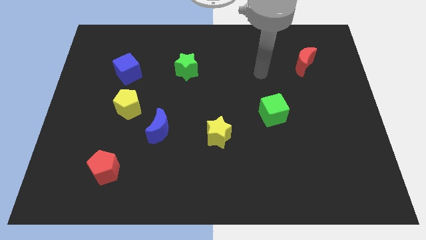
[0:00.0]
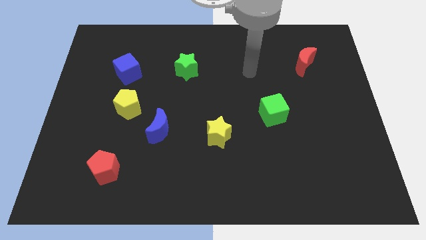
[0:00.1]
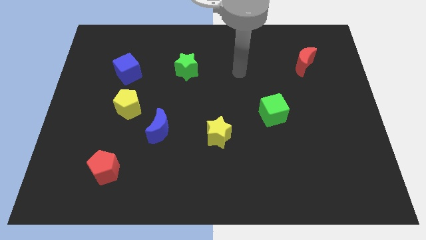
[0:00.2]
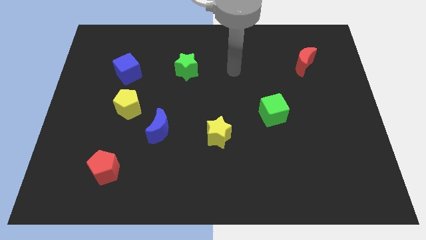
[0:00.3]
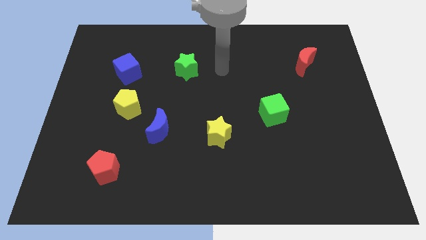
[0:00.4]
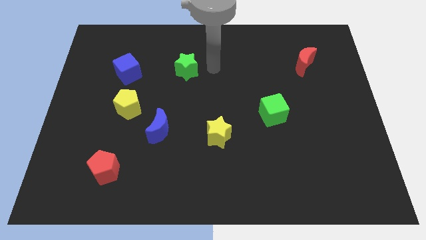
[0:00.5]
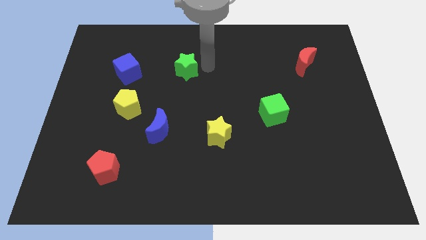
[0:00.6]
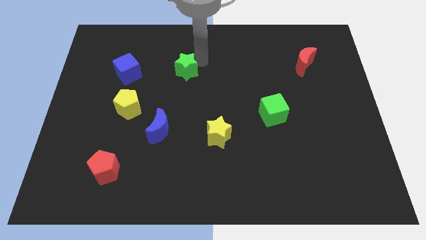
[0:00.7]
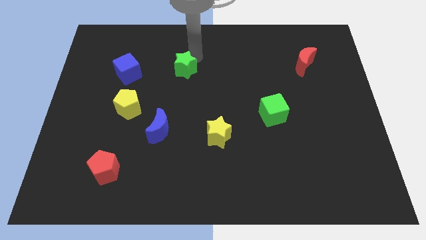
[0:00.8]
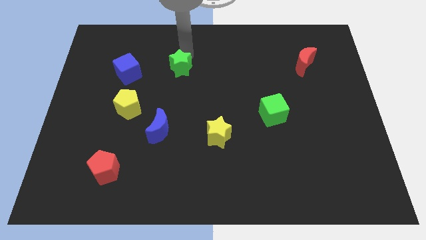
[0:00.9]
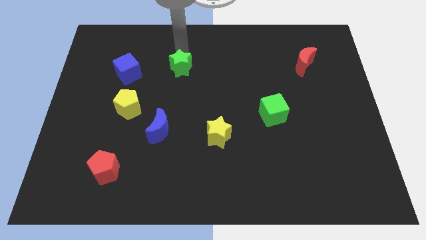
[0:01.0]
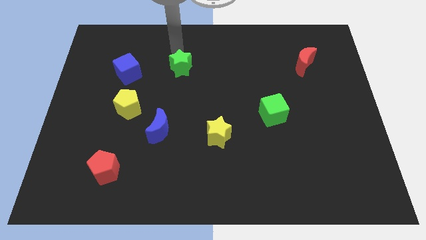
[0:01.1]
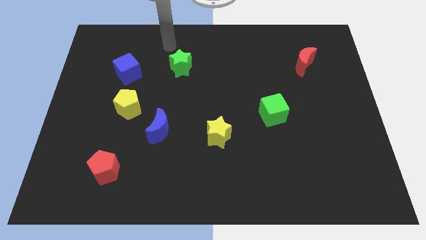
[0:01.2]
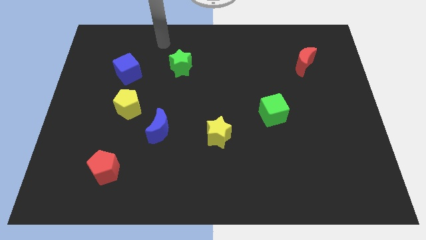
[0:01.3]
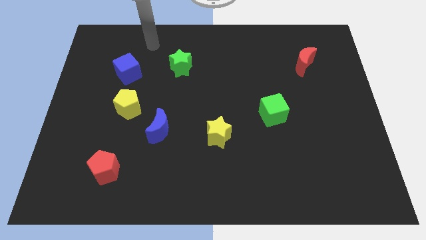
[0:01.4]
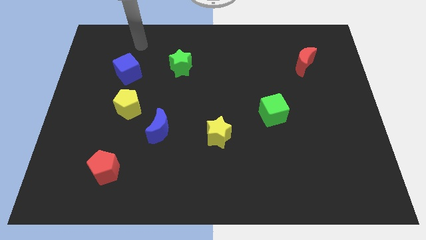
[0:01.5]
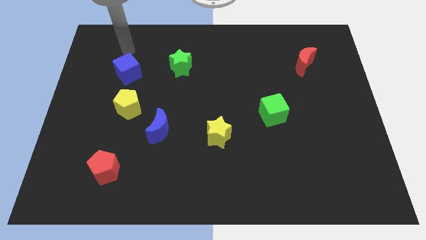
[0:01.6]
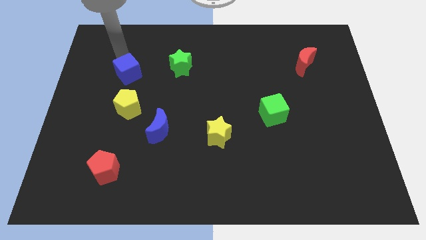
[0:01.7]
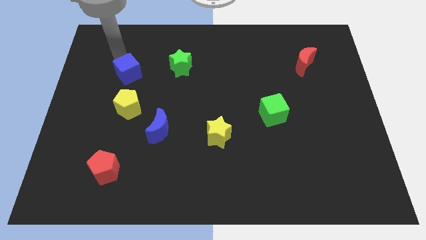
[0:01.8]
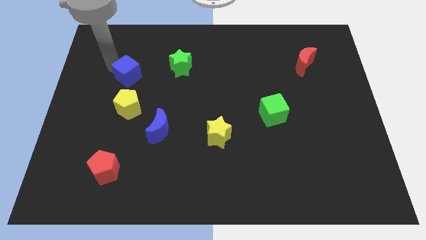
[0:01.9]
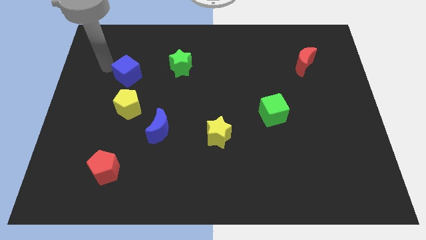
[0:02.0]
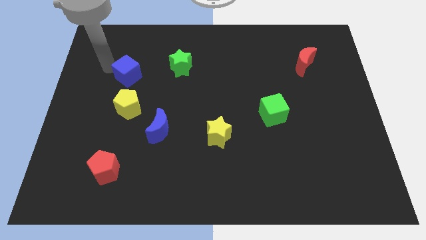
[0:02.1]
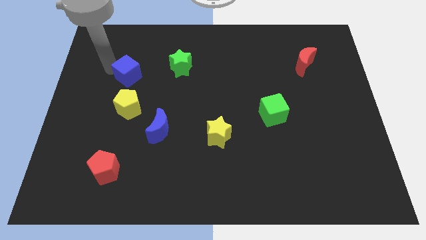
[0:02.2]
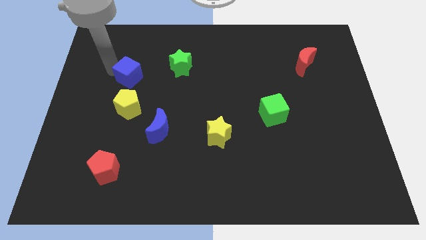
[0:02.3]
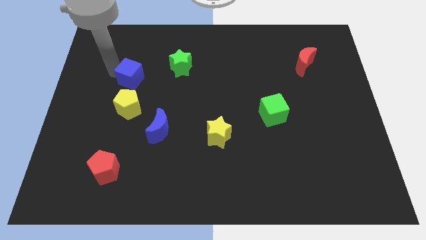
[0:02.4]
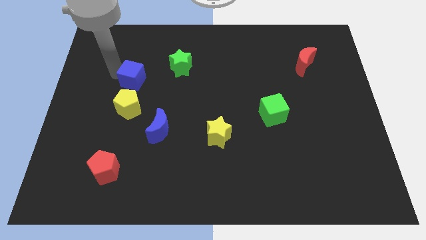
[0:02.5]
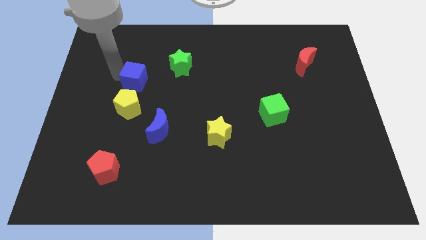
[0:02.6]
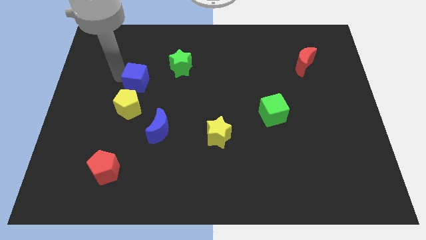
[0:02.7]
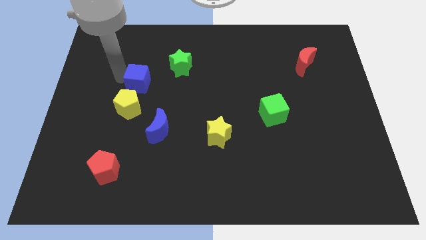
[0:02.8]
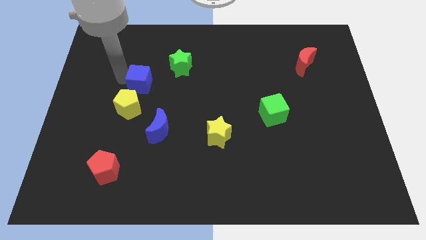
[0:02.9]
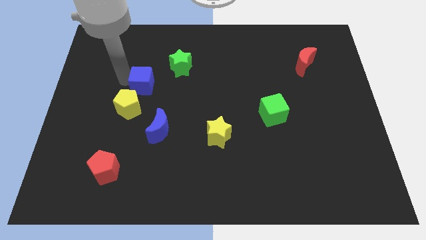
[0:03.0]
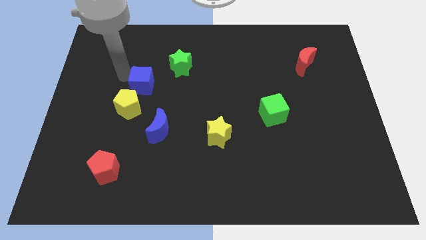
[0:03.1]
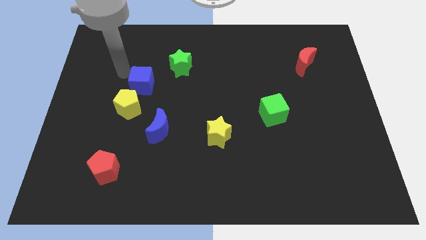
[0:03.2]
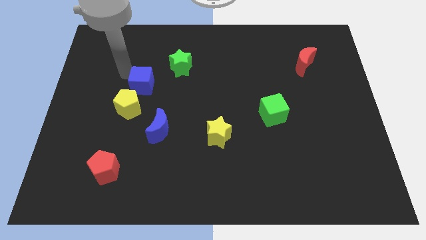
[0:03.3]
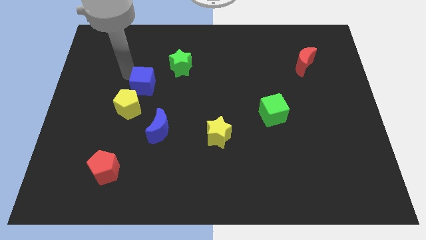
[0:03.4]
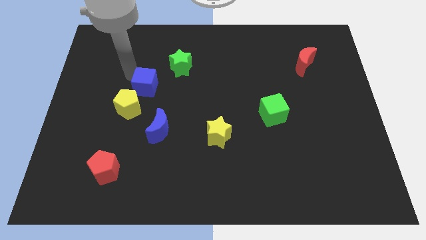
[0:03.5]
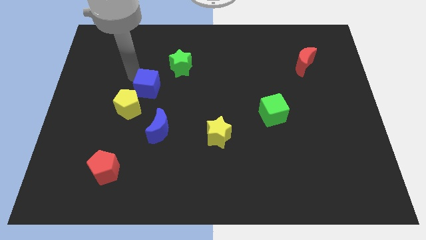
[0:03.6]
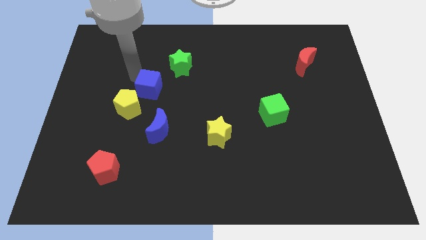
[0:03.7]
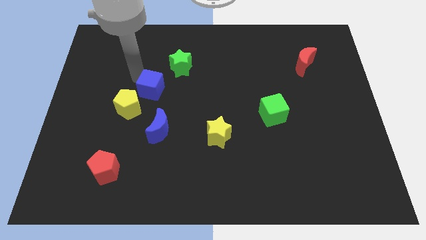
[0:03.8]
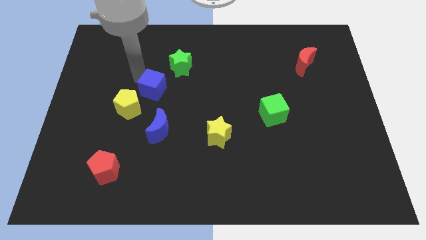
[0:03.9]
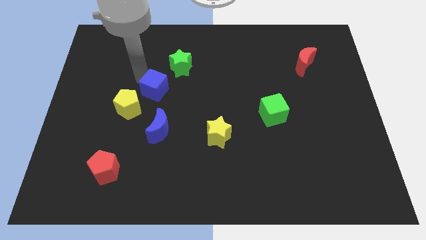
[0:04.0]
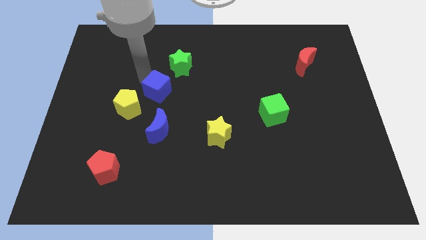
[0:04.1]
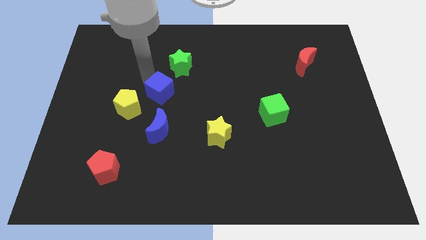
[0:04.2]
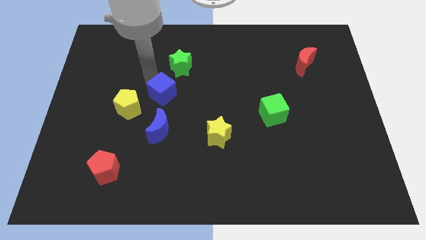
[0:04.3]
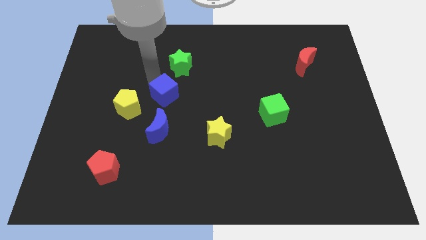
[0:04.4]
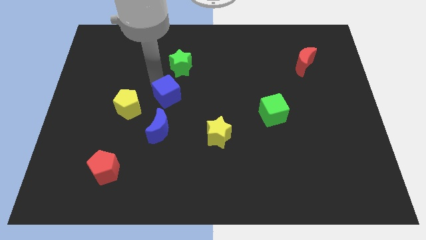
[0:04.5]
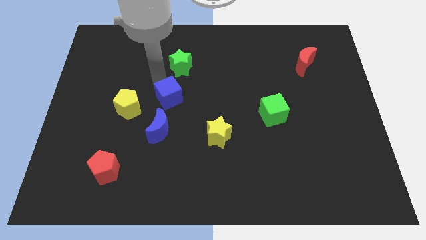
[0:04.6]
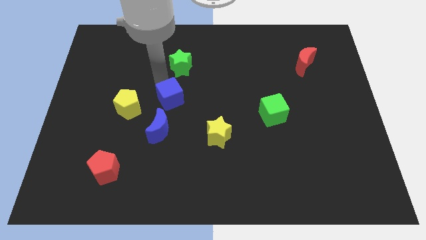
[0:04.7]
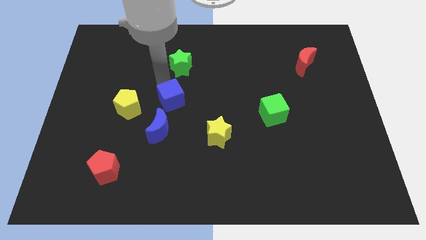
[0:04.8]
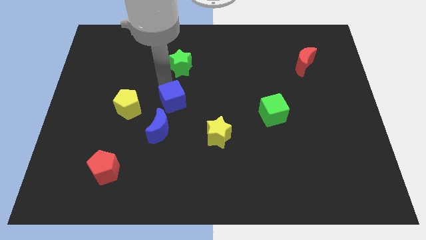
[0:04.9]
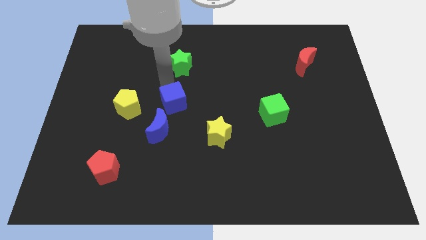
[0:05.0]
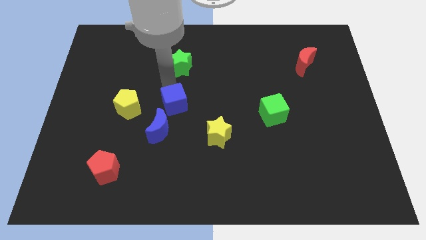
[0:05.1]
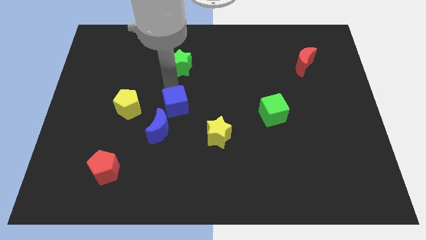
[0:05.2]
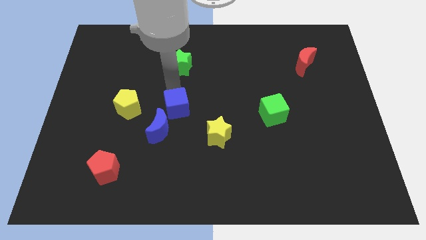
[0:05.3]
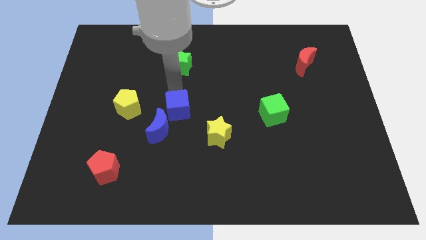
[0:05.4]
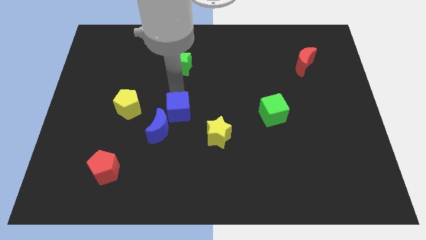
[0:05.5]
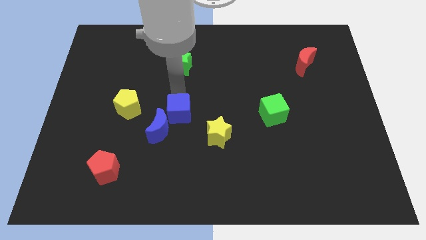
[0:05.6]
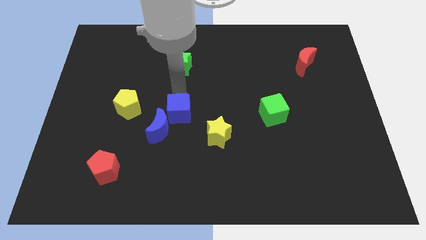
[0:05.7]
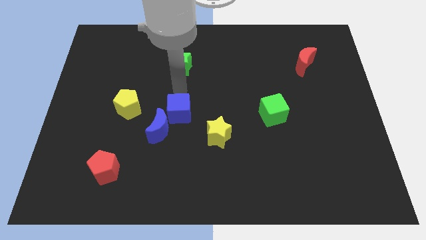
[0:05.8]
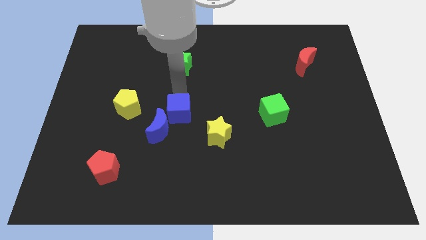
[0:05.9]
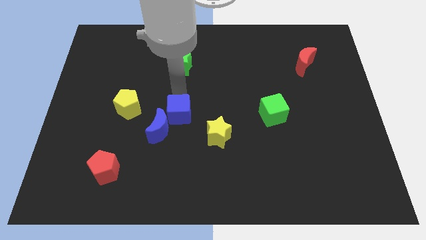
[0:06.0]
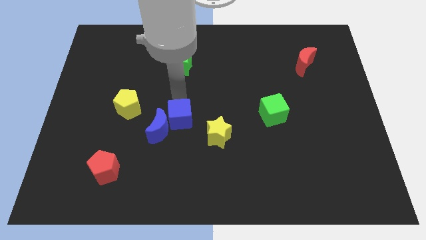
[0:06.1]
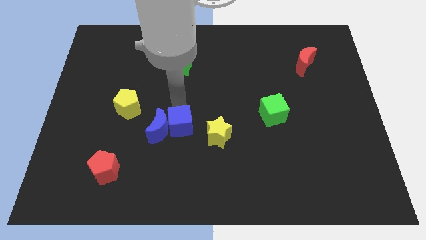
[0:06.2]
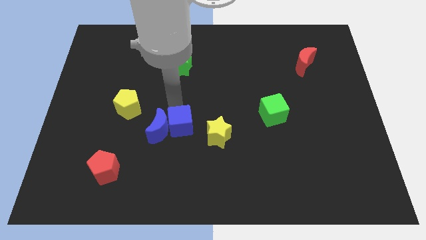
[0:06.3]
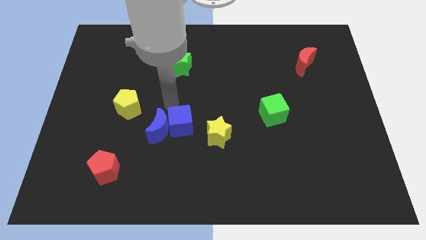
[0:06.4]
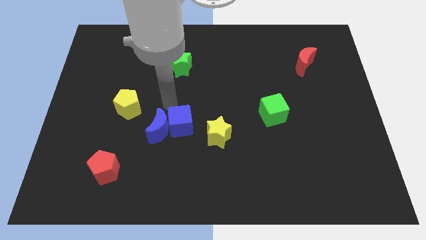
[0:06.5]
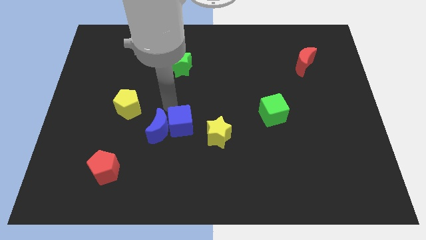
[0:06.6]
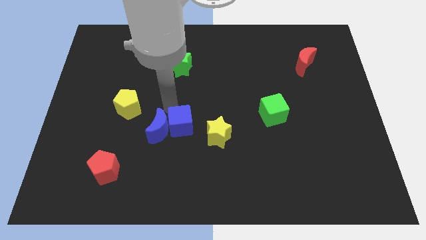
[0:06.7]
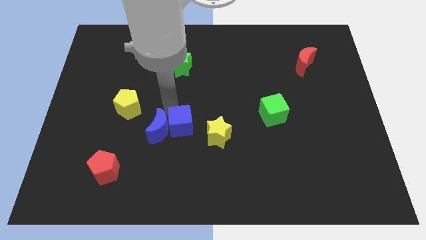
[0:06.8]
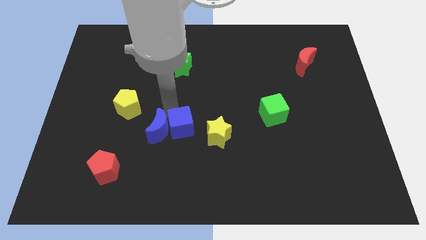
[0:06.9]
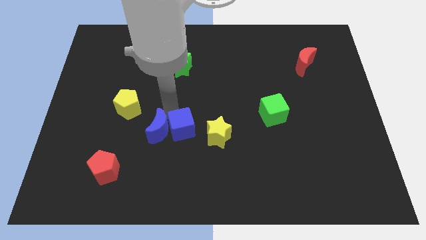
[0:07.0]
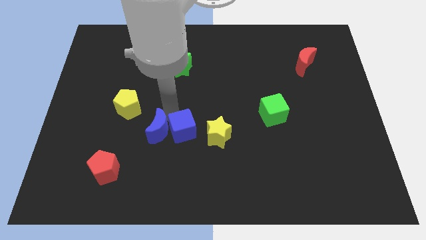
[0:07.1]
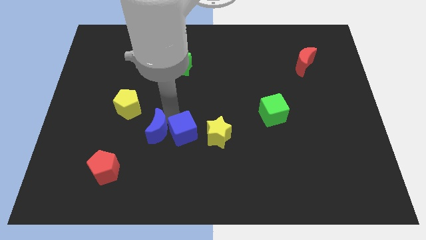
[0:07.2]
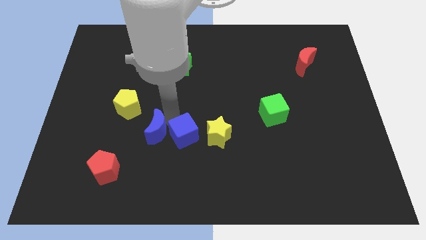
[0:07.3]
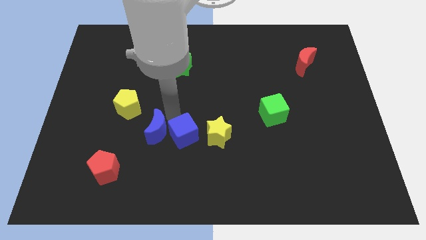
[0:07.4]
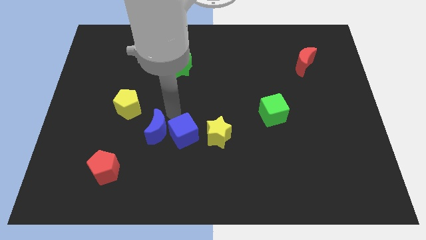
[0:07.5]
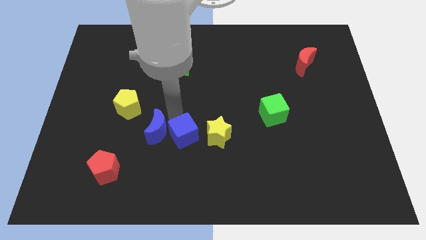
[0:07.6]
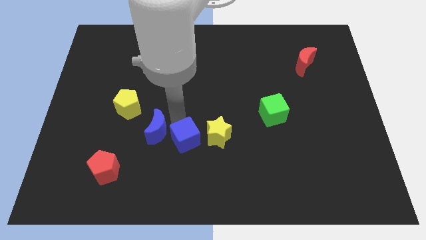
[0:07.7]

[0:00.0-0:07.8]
slide the blue cube diagonally down and to the left of the yellow star
